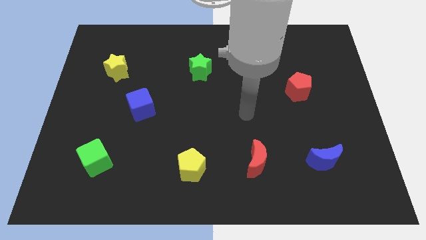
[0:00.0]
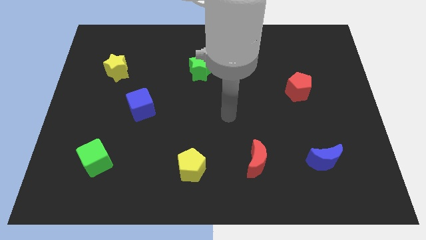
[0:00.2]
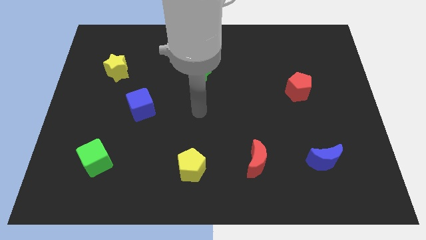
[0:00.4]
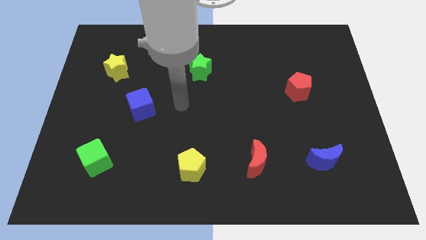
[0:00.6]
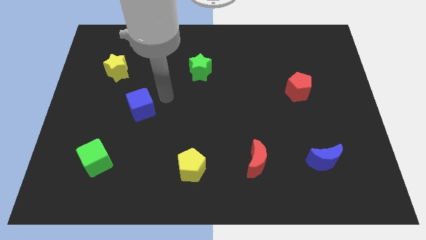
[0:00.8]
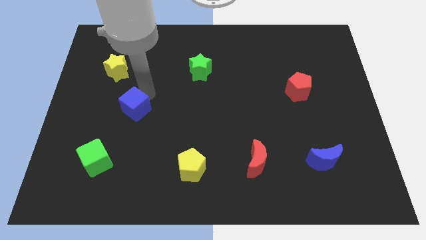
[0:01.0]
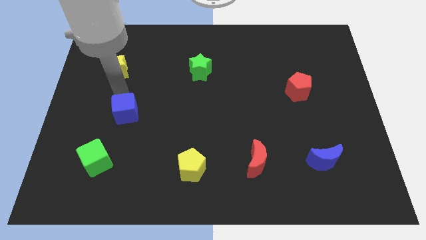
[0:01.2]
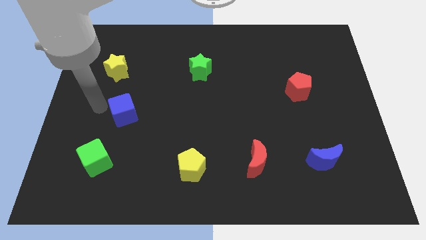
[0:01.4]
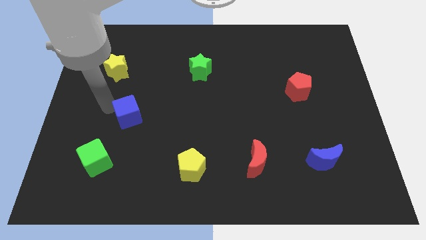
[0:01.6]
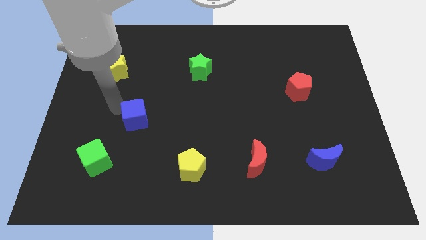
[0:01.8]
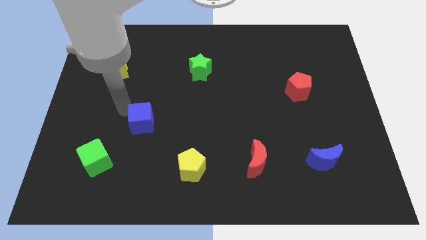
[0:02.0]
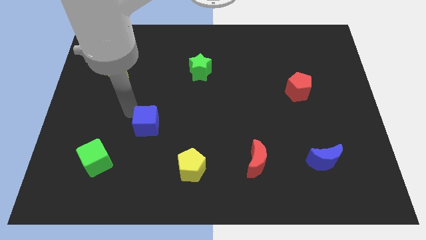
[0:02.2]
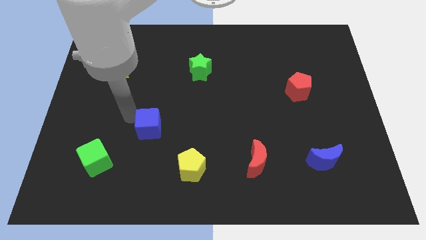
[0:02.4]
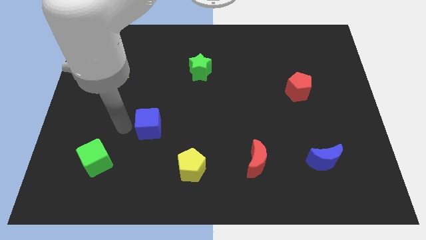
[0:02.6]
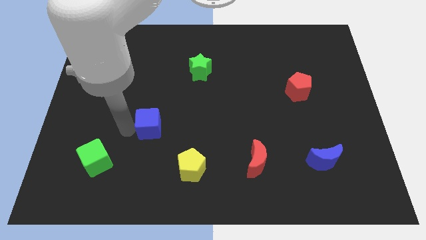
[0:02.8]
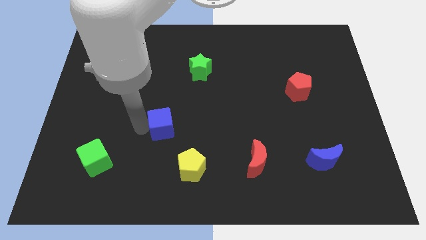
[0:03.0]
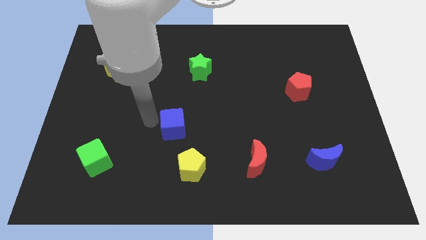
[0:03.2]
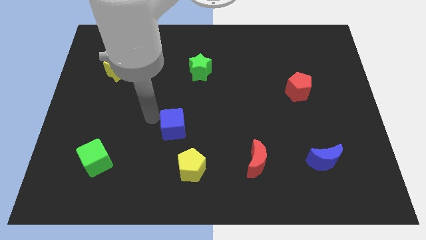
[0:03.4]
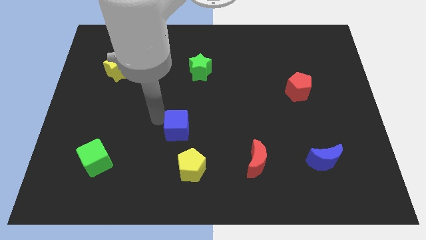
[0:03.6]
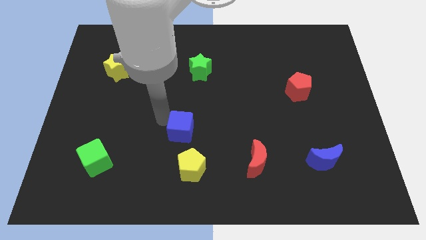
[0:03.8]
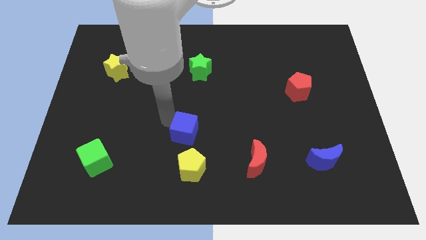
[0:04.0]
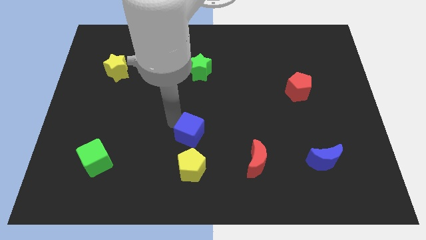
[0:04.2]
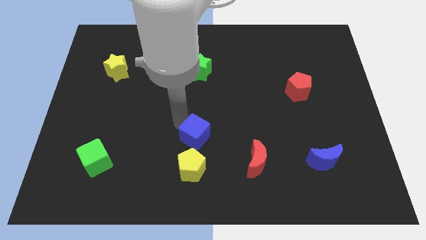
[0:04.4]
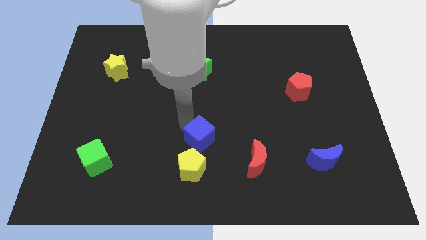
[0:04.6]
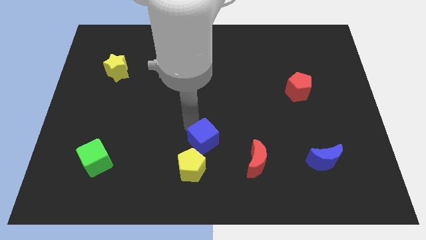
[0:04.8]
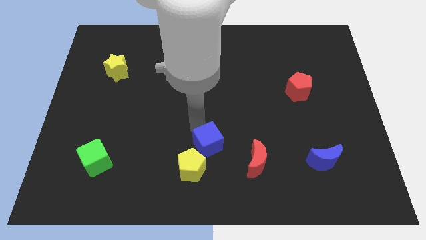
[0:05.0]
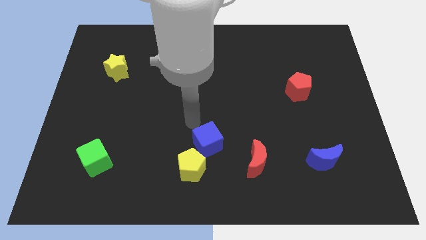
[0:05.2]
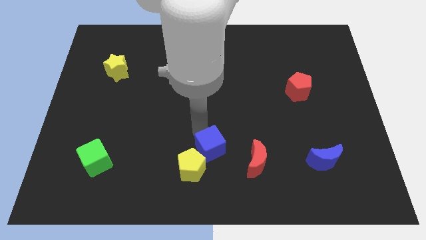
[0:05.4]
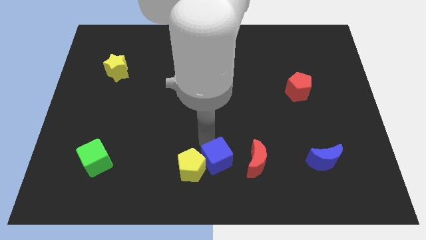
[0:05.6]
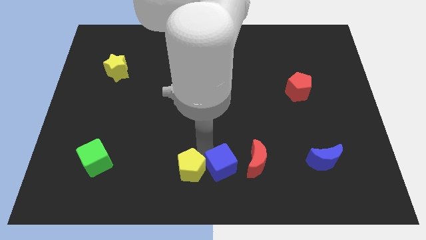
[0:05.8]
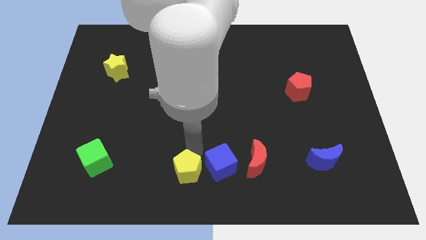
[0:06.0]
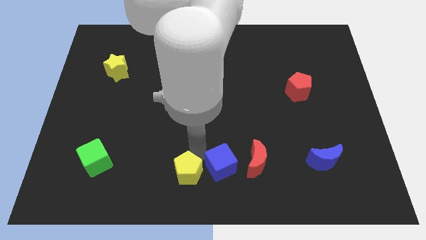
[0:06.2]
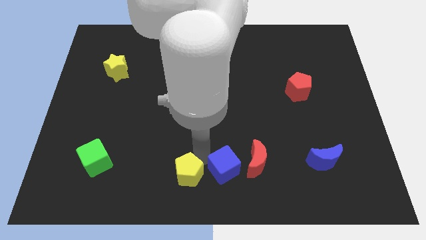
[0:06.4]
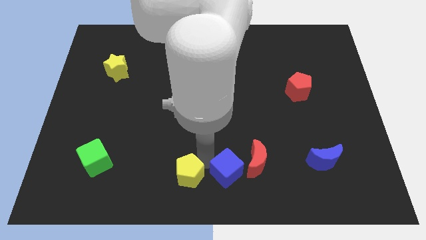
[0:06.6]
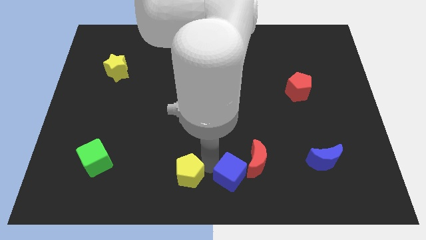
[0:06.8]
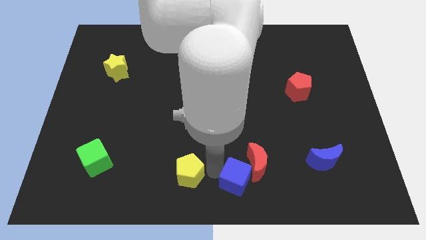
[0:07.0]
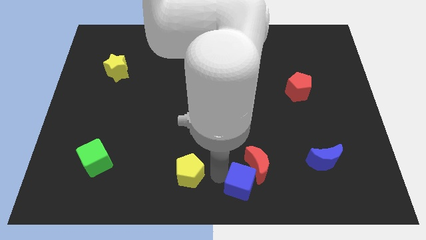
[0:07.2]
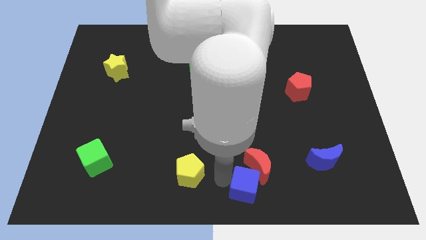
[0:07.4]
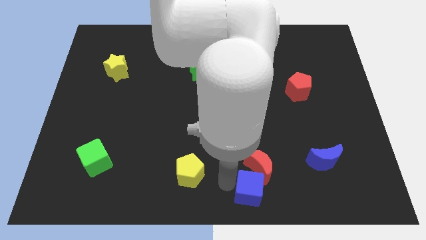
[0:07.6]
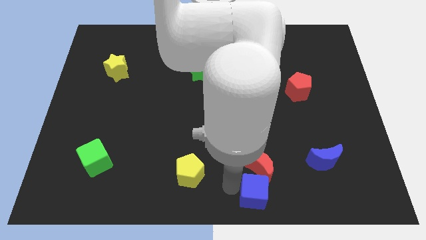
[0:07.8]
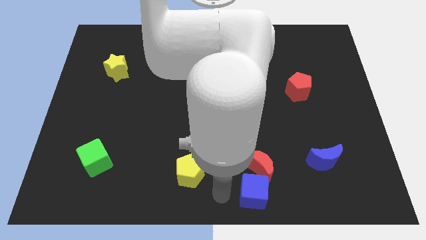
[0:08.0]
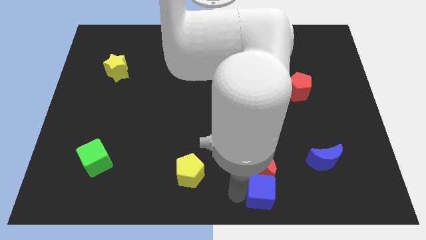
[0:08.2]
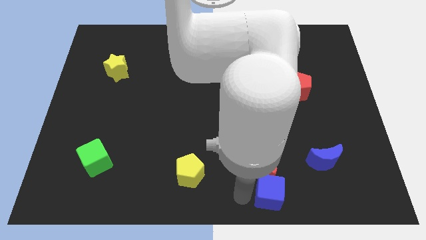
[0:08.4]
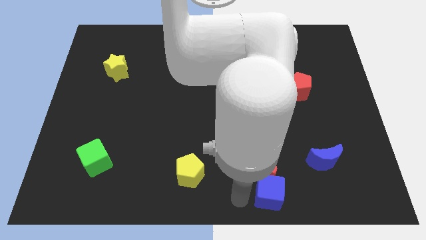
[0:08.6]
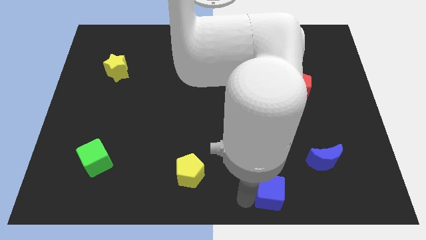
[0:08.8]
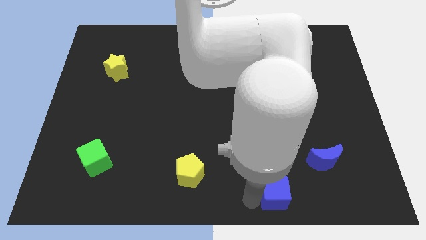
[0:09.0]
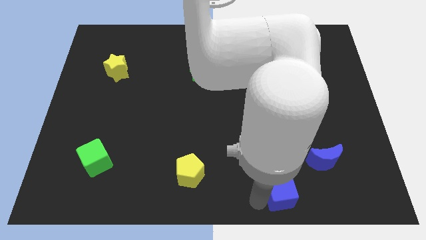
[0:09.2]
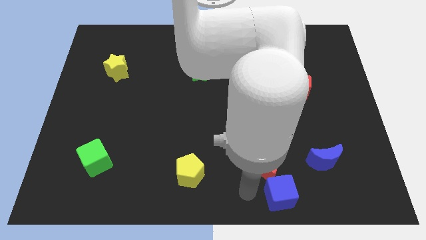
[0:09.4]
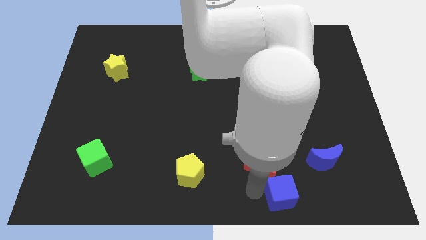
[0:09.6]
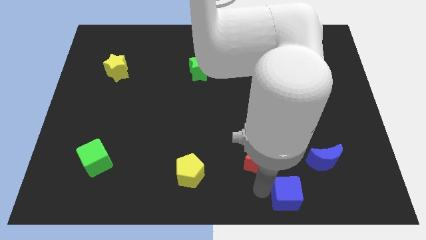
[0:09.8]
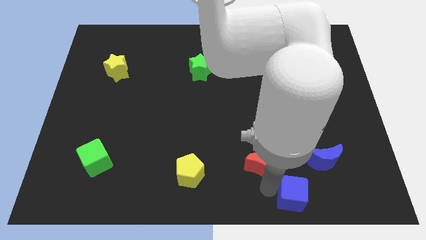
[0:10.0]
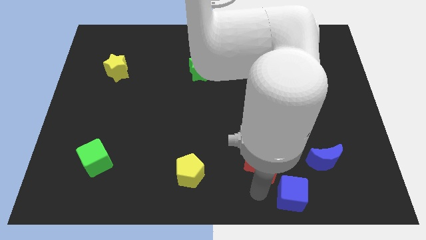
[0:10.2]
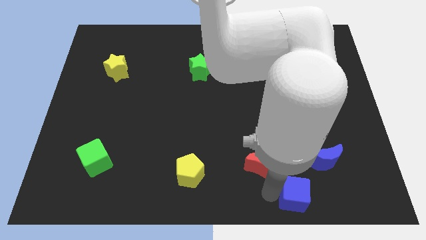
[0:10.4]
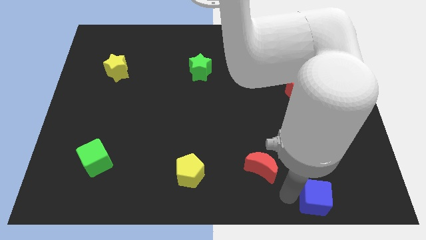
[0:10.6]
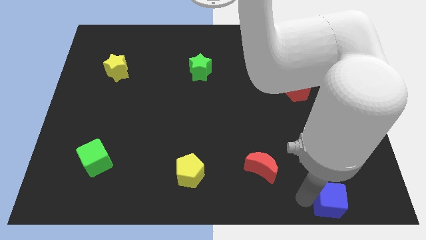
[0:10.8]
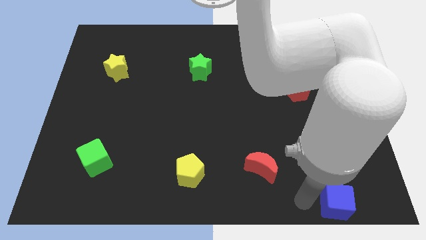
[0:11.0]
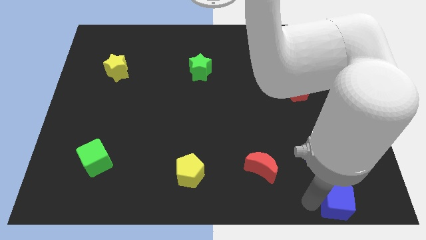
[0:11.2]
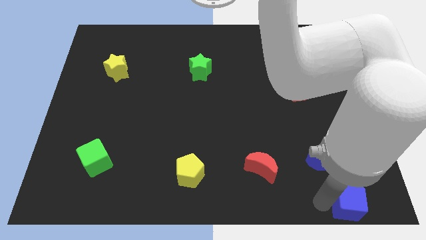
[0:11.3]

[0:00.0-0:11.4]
push the blue cube to the bottom right of the board

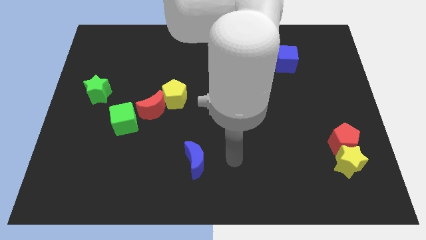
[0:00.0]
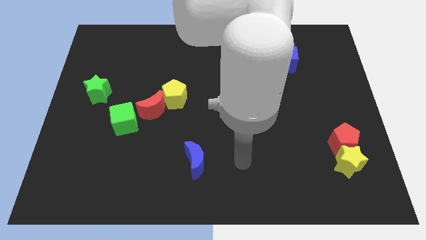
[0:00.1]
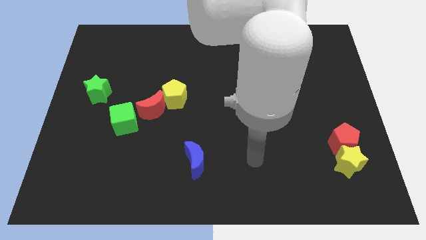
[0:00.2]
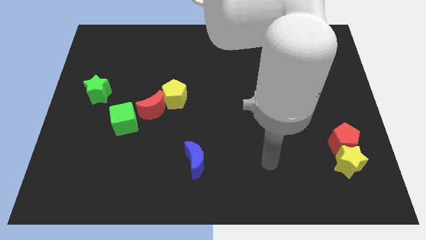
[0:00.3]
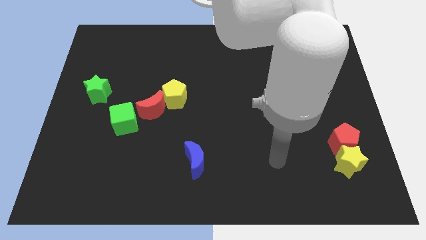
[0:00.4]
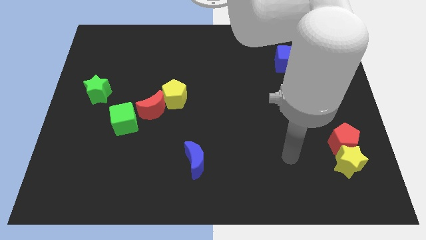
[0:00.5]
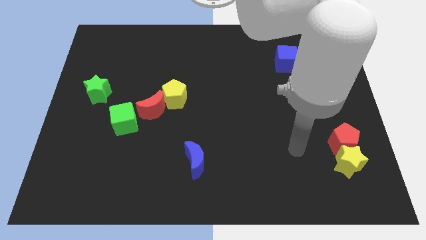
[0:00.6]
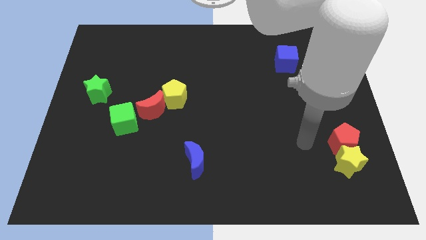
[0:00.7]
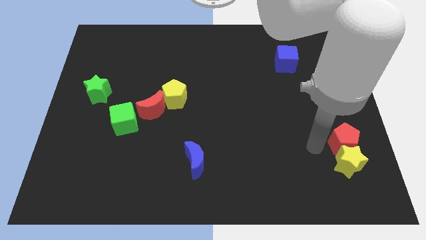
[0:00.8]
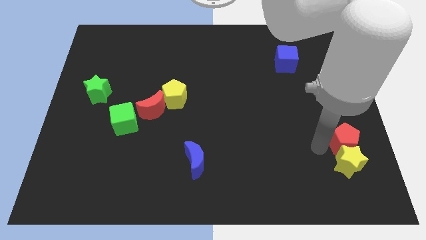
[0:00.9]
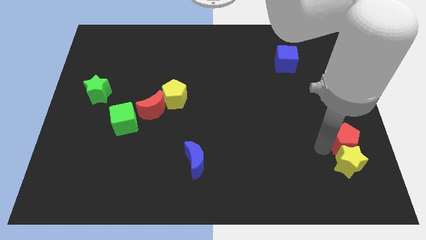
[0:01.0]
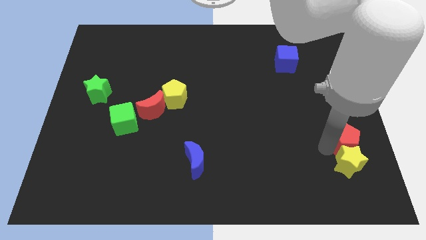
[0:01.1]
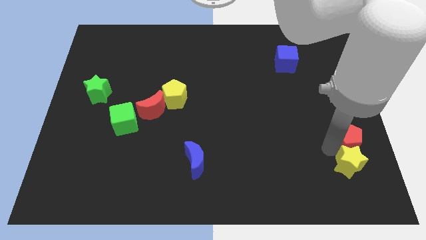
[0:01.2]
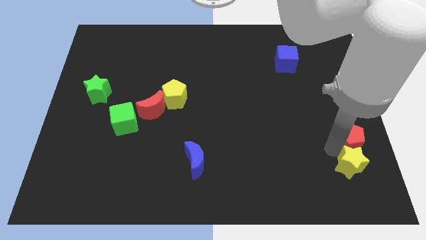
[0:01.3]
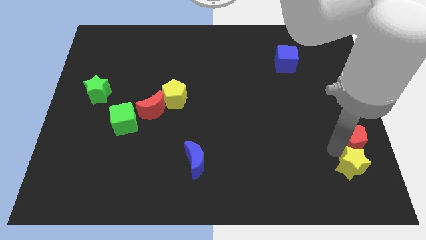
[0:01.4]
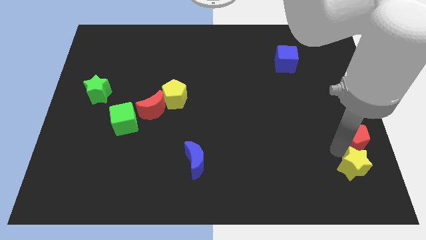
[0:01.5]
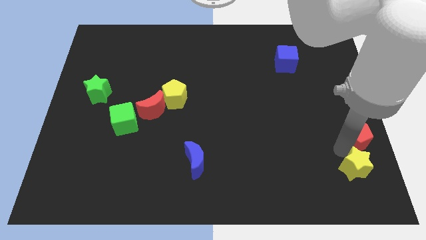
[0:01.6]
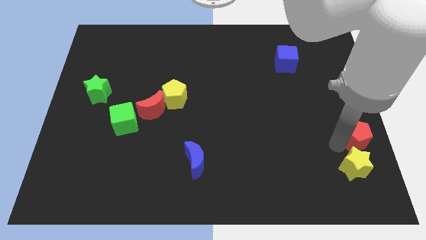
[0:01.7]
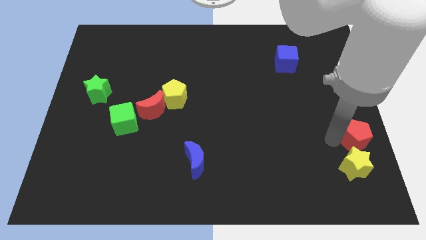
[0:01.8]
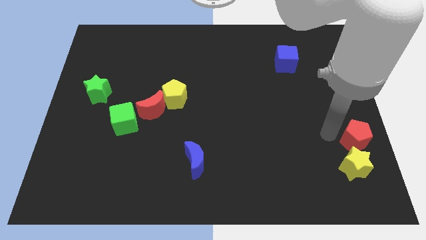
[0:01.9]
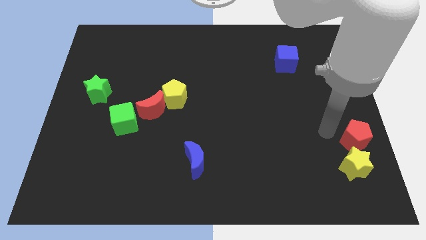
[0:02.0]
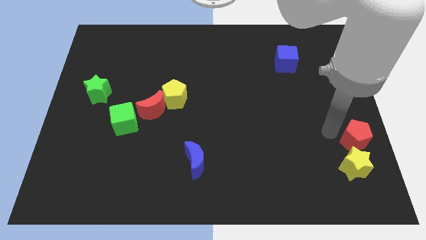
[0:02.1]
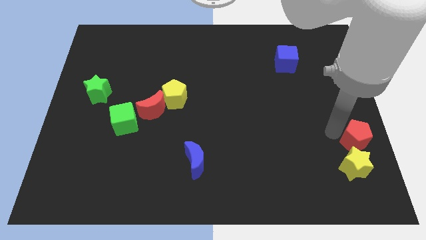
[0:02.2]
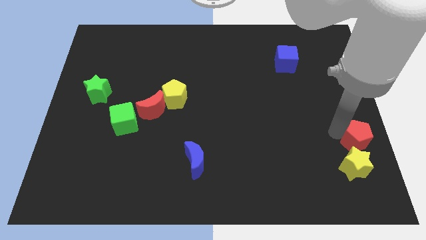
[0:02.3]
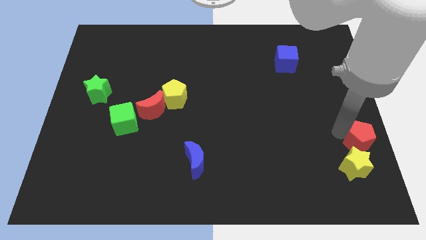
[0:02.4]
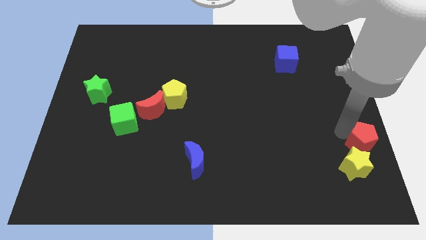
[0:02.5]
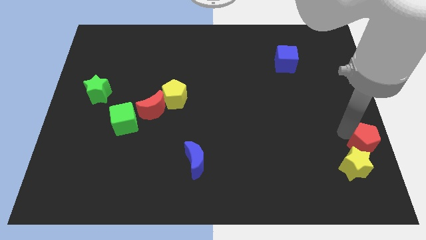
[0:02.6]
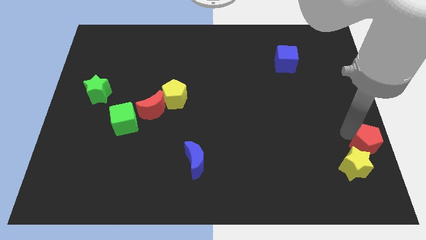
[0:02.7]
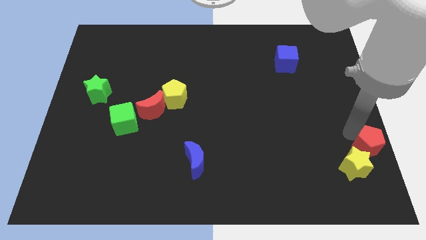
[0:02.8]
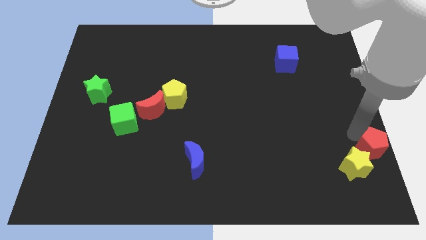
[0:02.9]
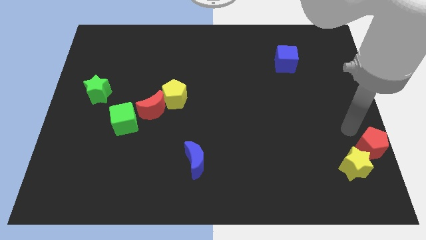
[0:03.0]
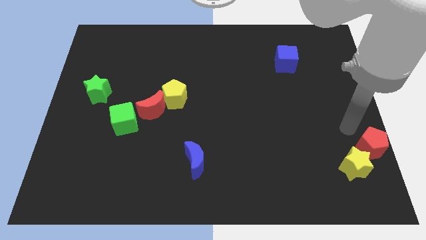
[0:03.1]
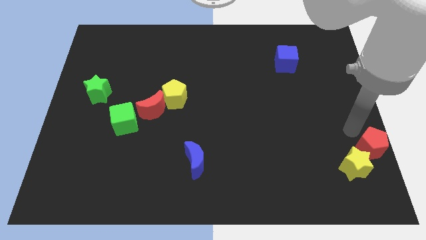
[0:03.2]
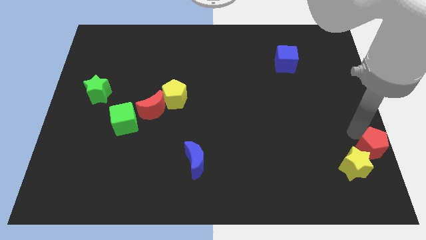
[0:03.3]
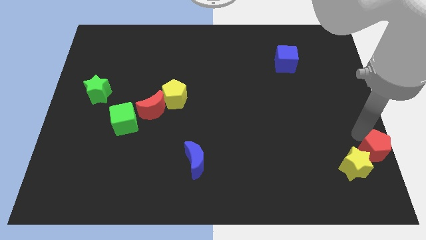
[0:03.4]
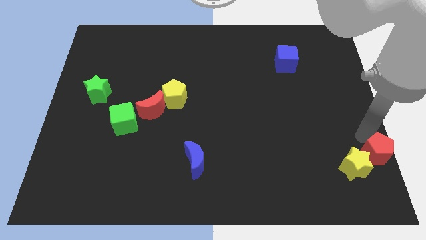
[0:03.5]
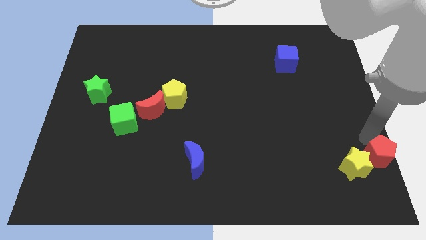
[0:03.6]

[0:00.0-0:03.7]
put the red pentagon to the bottom right corner
